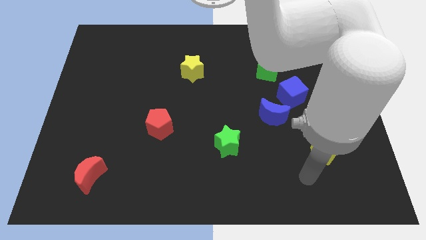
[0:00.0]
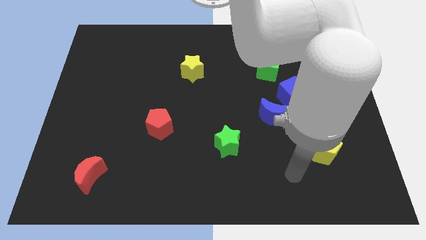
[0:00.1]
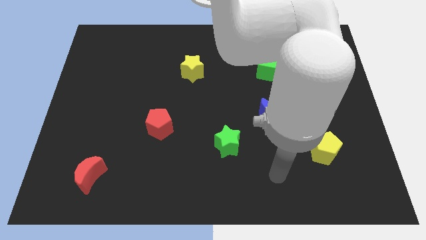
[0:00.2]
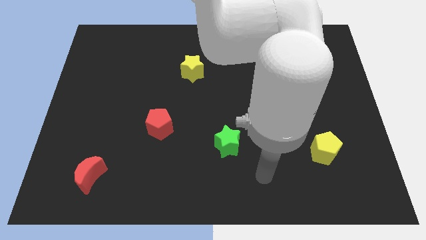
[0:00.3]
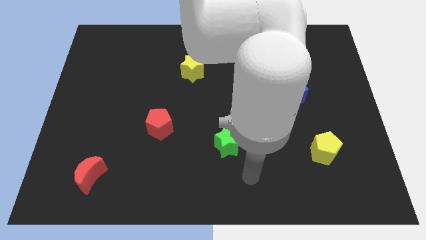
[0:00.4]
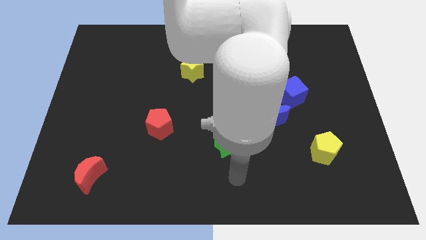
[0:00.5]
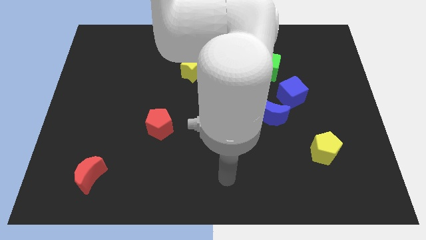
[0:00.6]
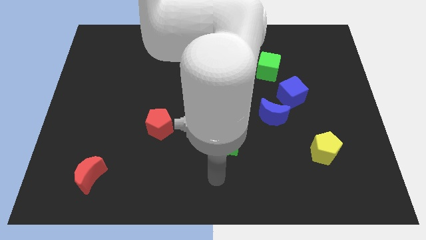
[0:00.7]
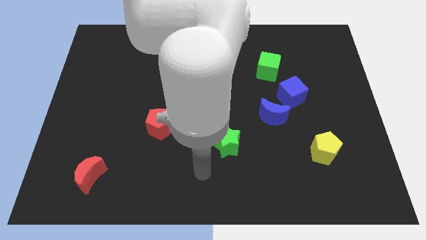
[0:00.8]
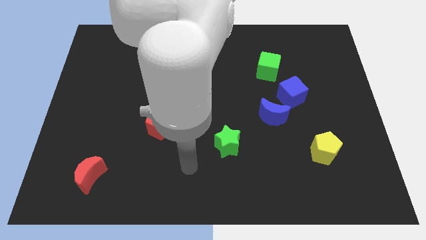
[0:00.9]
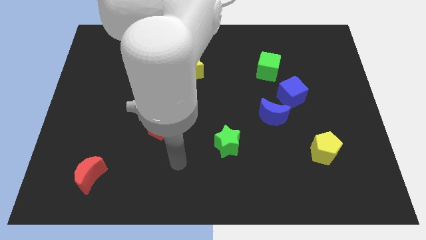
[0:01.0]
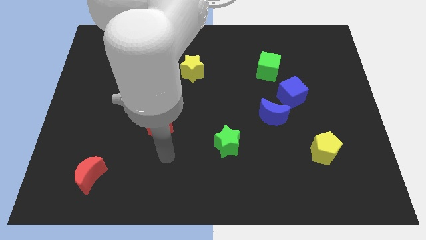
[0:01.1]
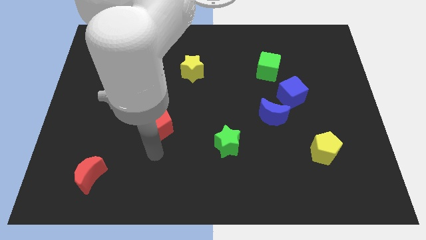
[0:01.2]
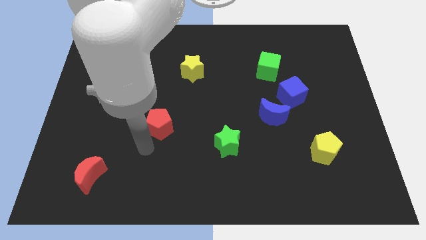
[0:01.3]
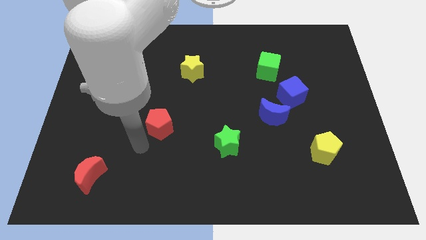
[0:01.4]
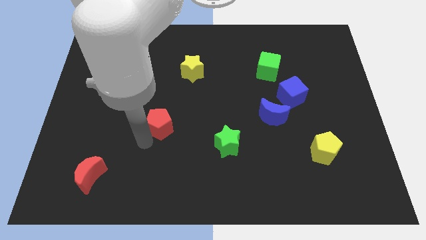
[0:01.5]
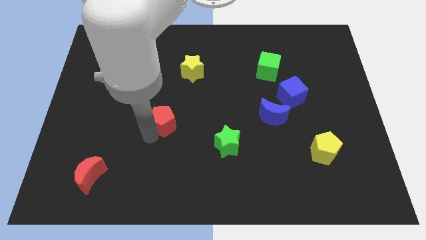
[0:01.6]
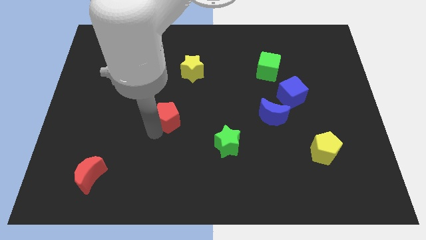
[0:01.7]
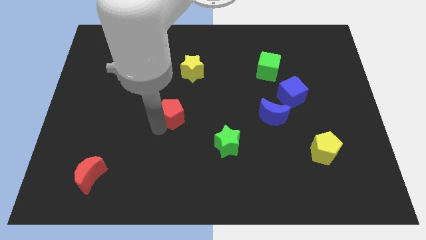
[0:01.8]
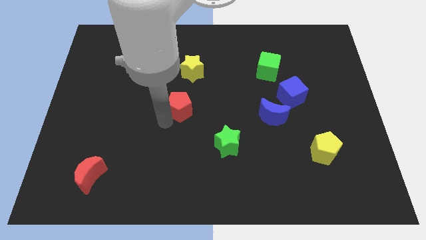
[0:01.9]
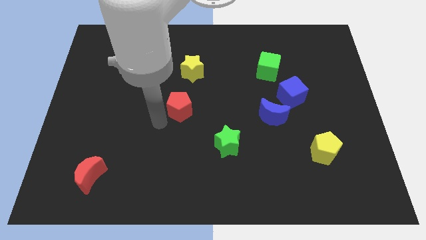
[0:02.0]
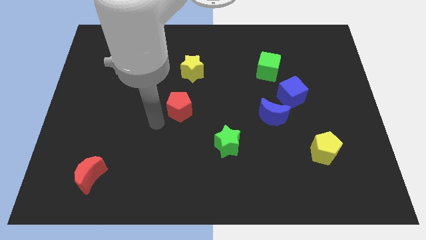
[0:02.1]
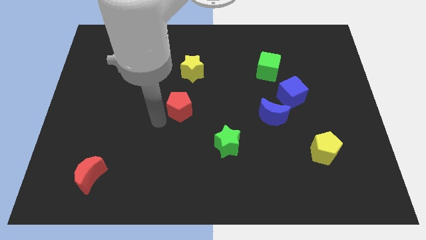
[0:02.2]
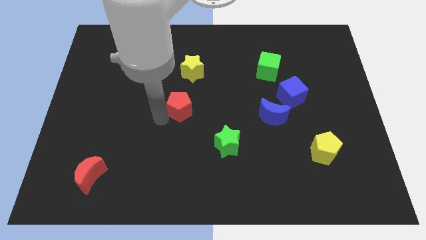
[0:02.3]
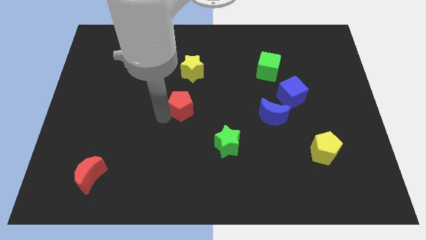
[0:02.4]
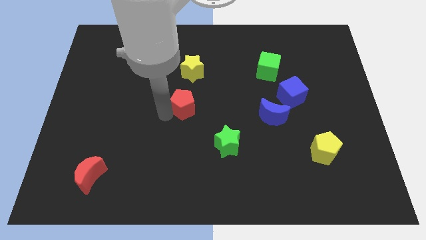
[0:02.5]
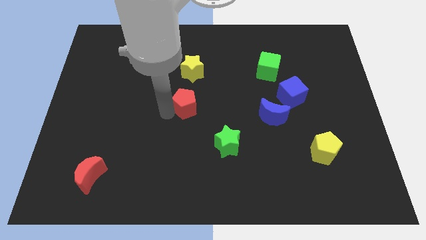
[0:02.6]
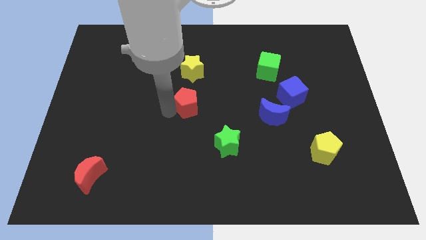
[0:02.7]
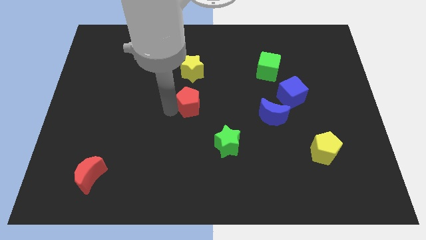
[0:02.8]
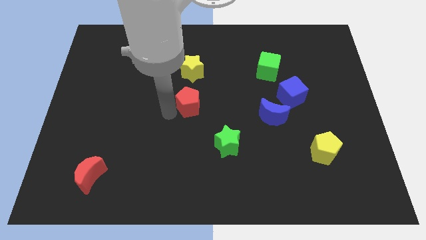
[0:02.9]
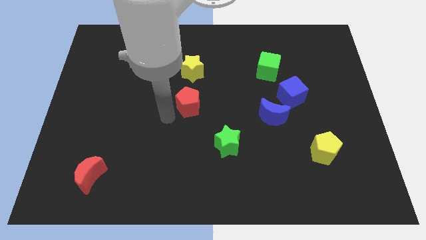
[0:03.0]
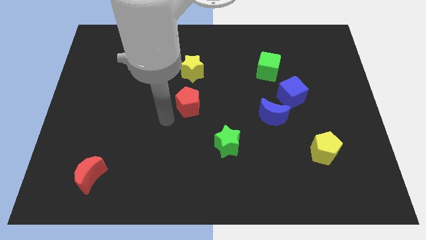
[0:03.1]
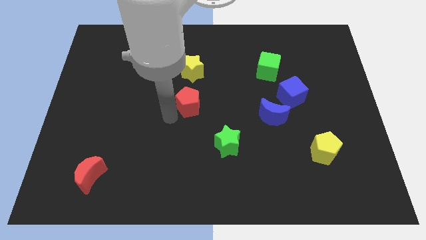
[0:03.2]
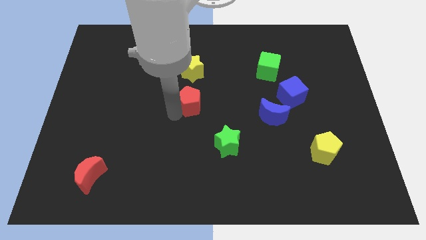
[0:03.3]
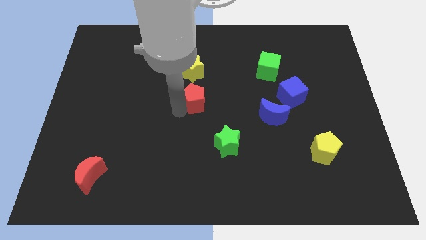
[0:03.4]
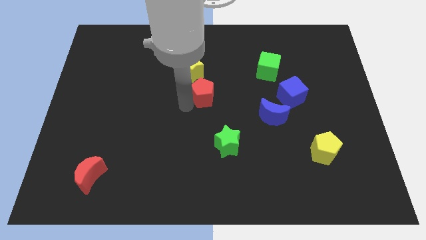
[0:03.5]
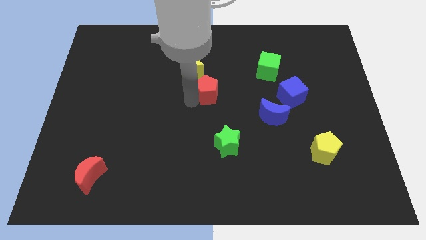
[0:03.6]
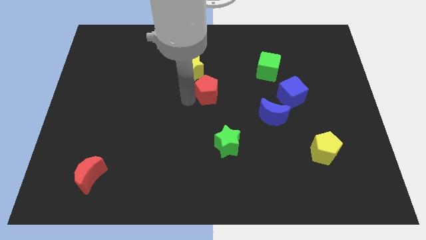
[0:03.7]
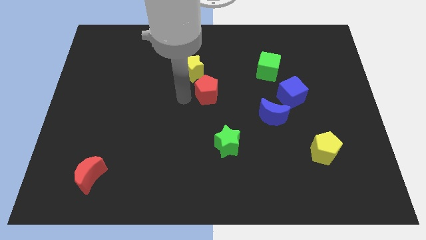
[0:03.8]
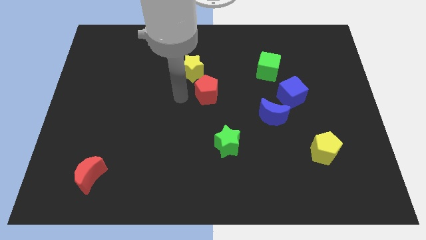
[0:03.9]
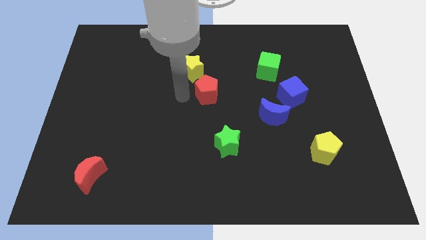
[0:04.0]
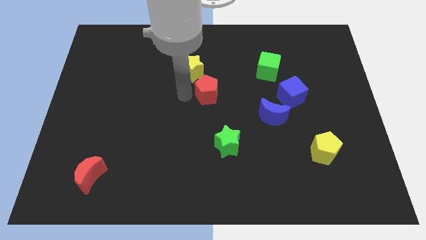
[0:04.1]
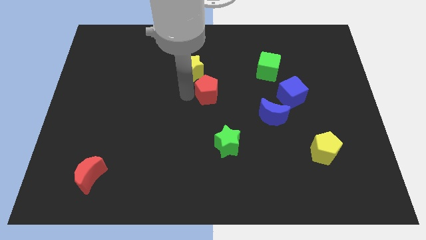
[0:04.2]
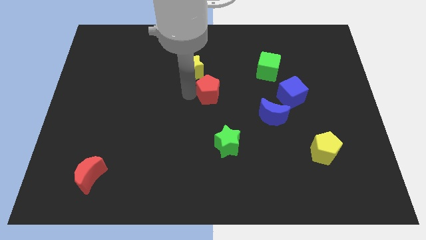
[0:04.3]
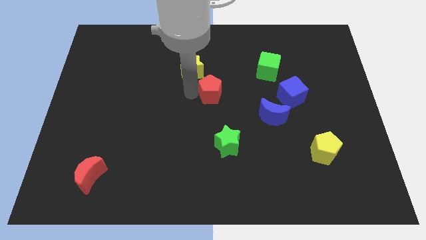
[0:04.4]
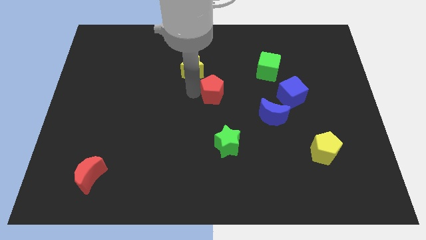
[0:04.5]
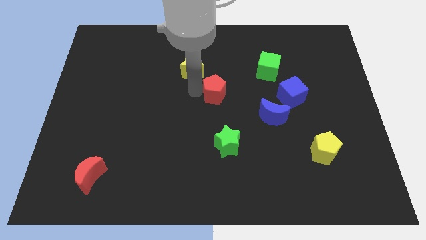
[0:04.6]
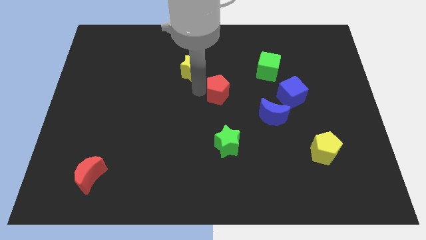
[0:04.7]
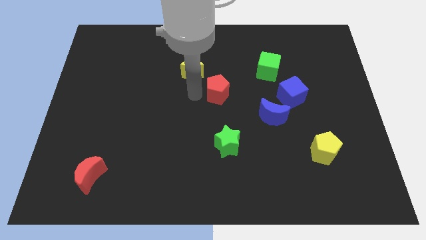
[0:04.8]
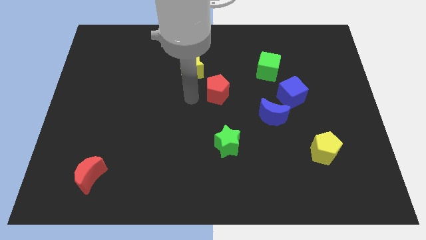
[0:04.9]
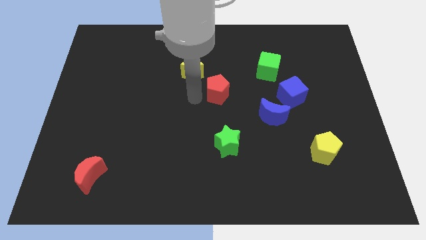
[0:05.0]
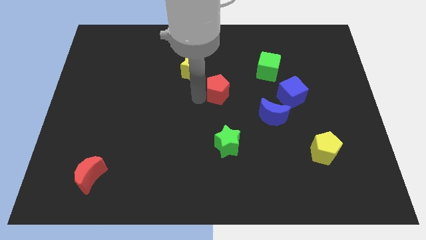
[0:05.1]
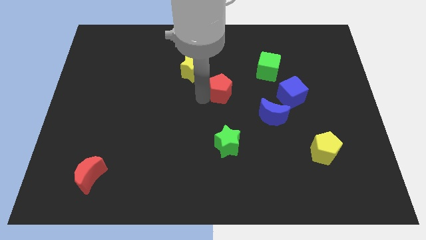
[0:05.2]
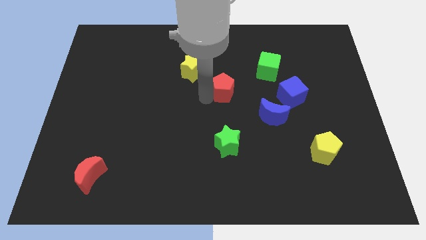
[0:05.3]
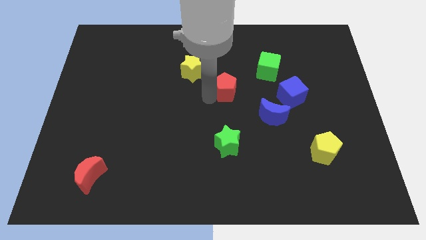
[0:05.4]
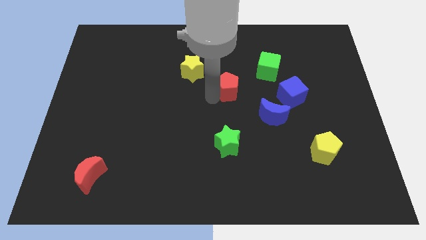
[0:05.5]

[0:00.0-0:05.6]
slide the red pentagon to the bottom left of the green cube

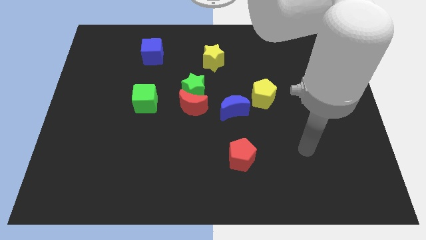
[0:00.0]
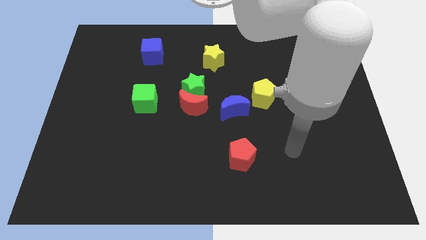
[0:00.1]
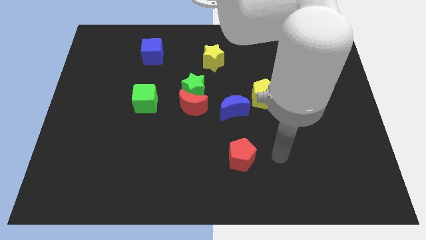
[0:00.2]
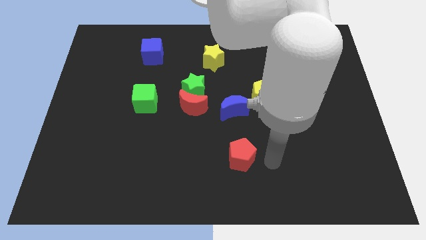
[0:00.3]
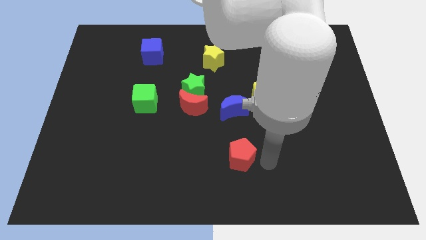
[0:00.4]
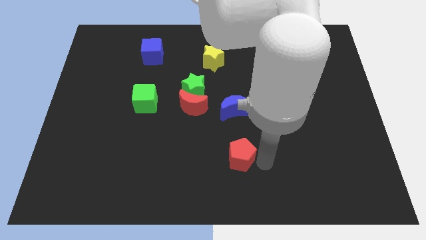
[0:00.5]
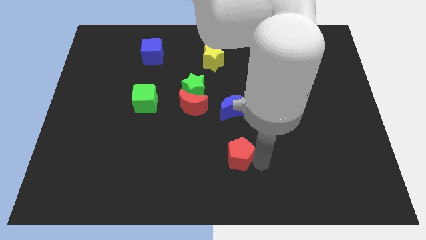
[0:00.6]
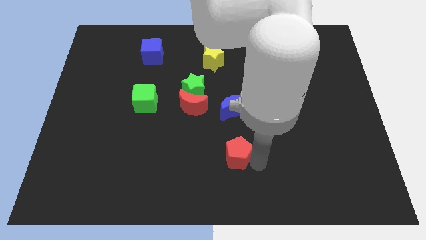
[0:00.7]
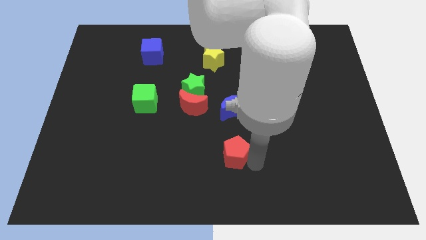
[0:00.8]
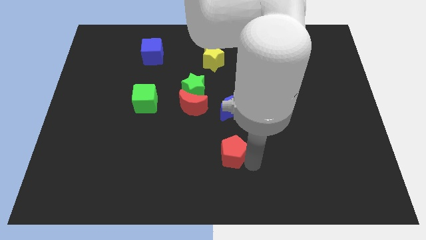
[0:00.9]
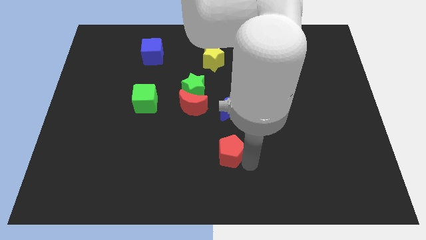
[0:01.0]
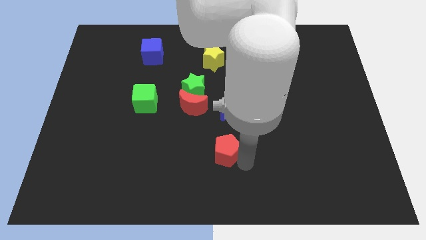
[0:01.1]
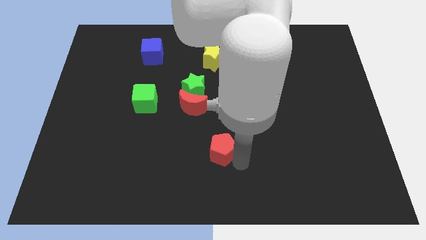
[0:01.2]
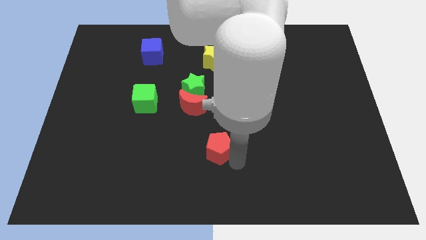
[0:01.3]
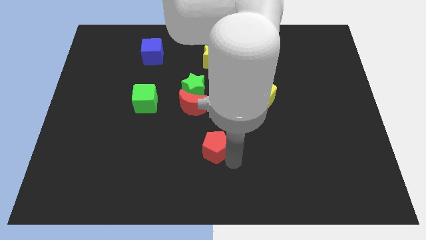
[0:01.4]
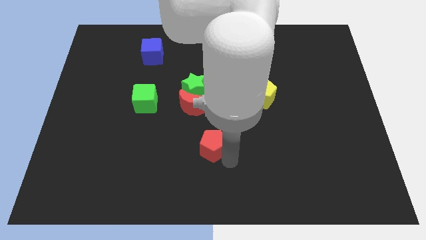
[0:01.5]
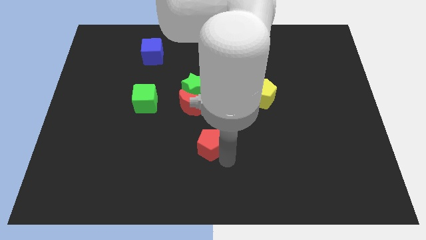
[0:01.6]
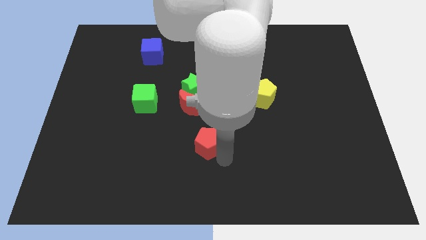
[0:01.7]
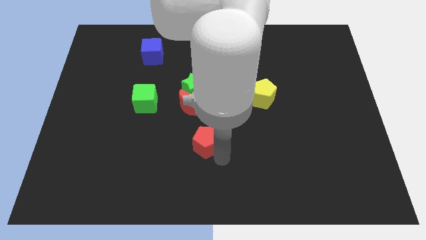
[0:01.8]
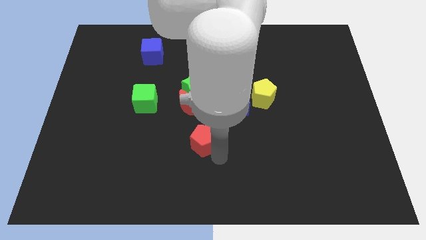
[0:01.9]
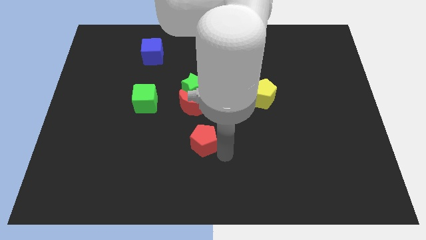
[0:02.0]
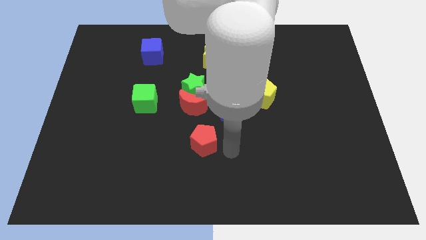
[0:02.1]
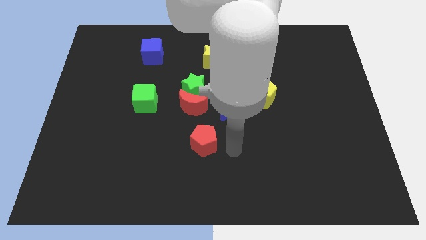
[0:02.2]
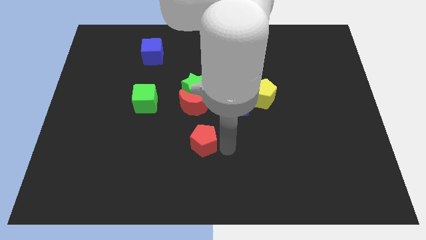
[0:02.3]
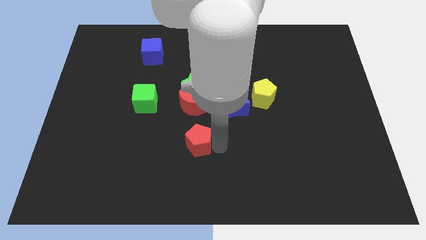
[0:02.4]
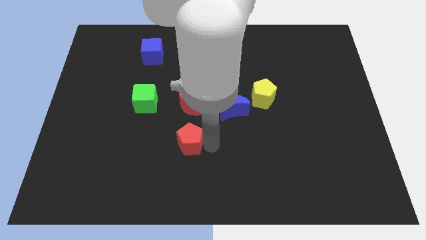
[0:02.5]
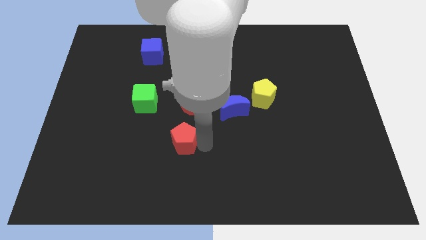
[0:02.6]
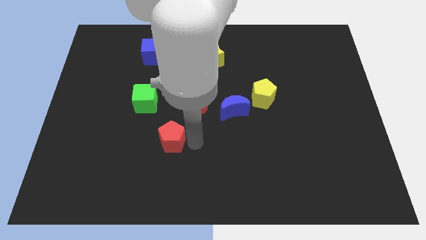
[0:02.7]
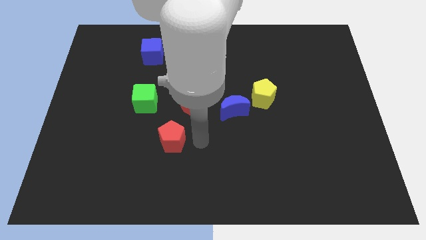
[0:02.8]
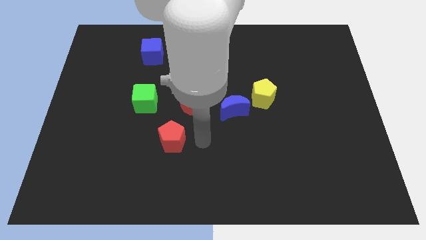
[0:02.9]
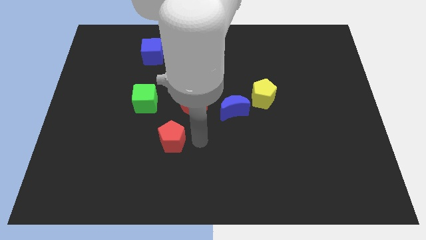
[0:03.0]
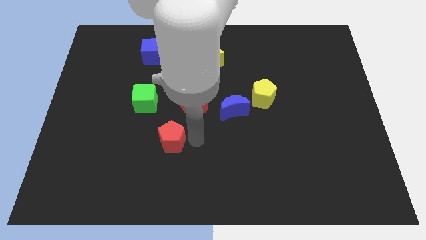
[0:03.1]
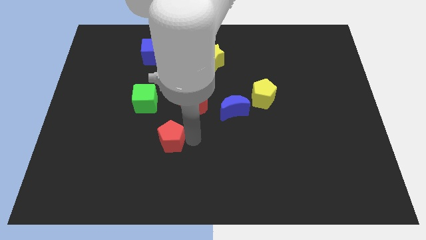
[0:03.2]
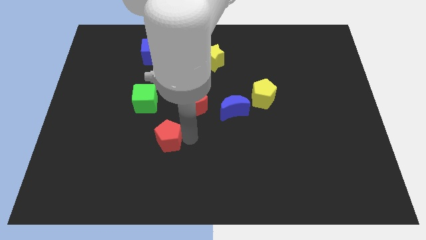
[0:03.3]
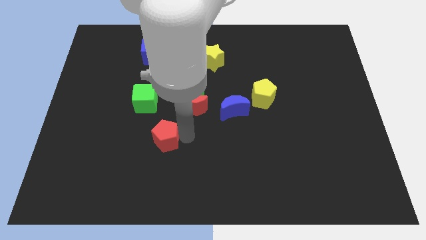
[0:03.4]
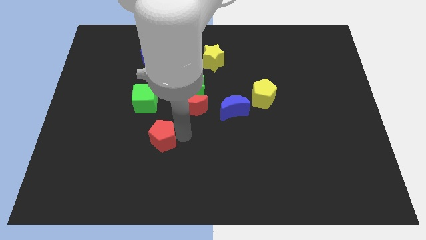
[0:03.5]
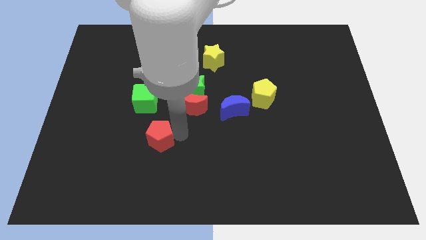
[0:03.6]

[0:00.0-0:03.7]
slide the red pentagon to the bottom of the green cube
